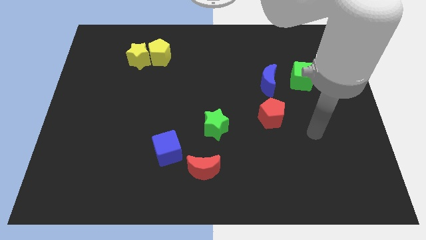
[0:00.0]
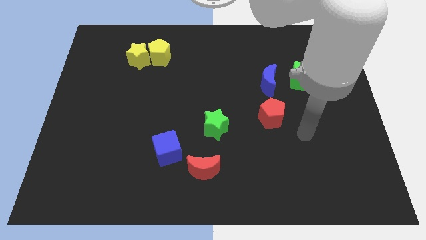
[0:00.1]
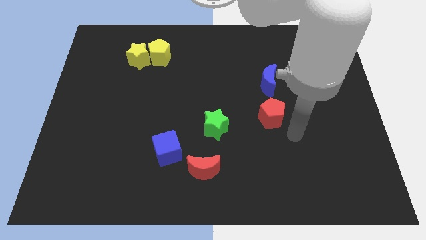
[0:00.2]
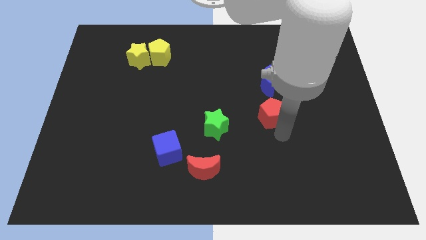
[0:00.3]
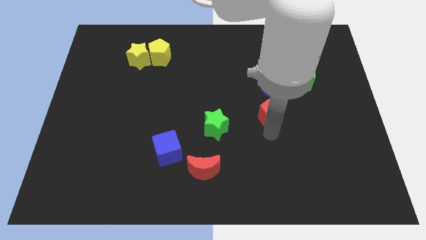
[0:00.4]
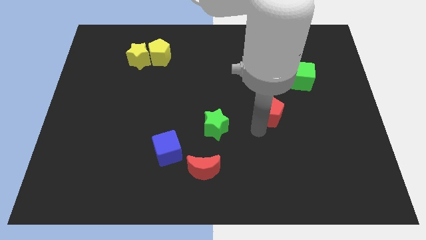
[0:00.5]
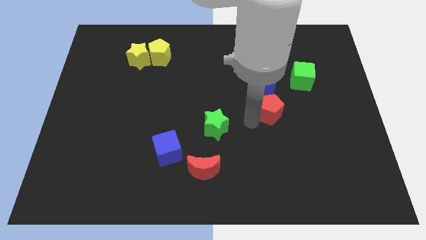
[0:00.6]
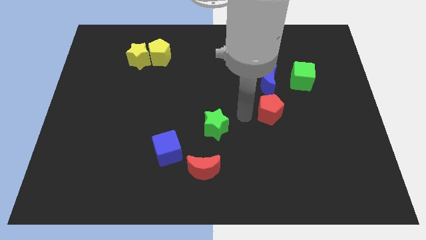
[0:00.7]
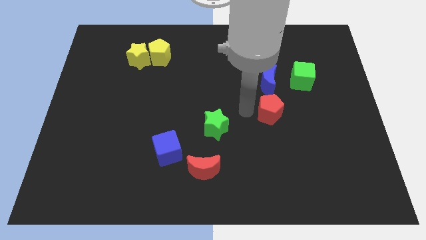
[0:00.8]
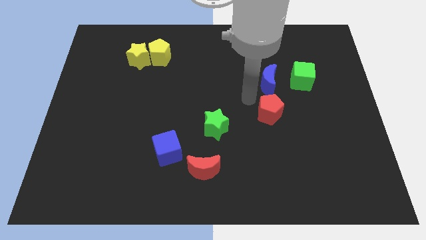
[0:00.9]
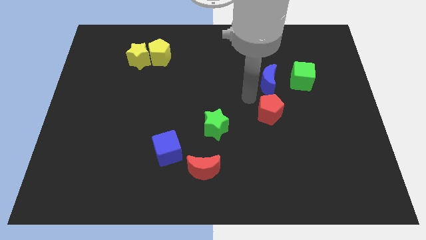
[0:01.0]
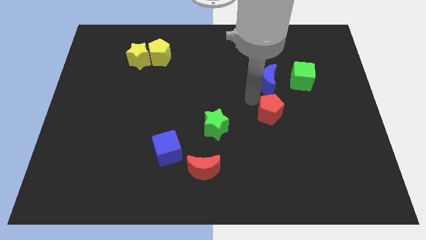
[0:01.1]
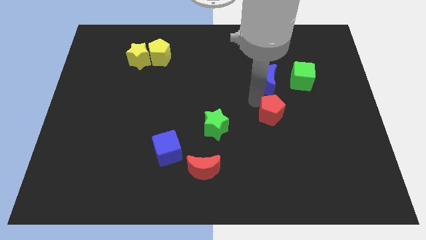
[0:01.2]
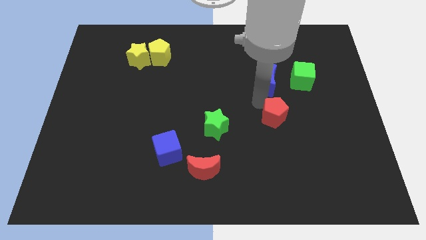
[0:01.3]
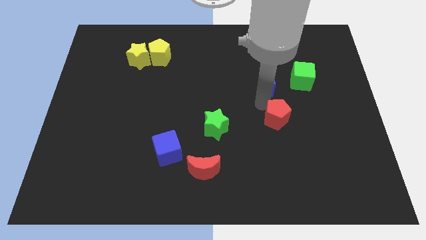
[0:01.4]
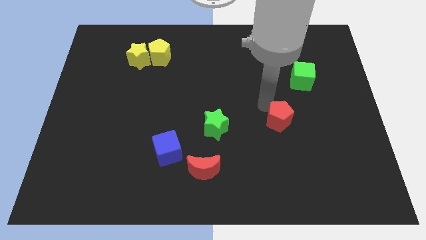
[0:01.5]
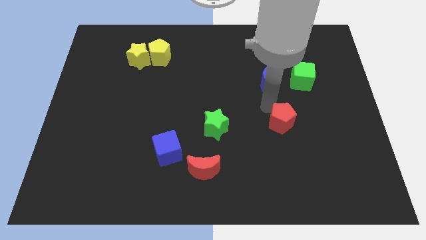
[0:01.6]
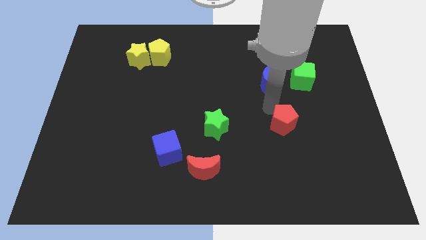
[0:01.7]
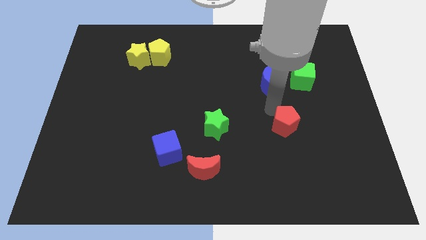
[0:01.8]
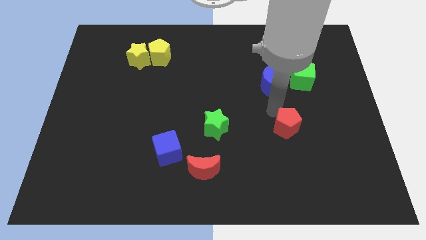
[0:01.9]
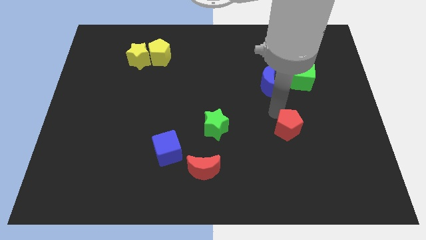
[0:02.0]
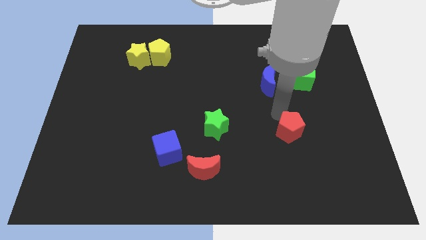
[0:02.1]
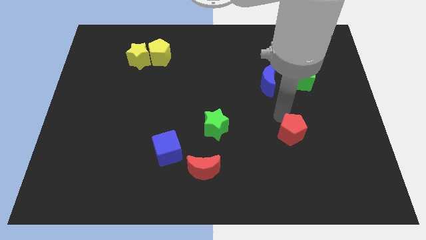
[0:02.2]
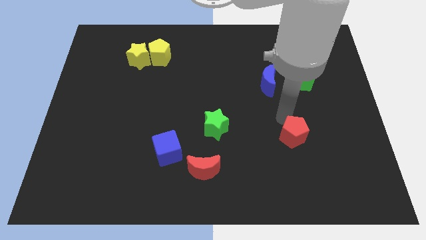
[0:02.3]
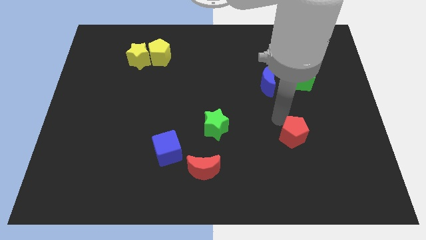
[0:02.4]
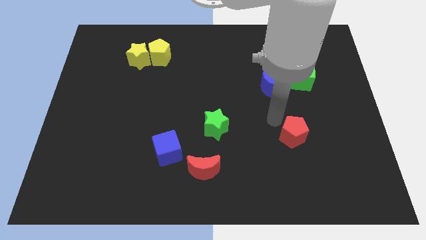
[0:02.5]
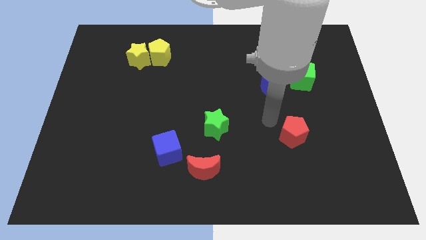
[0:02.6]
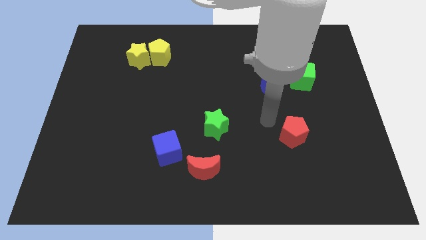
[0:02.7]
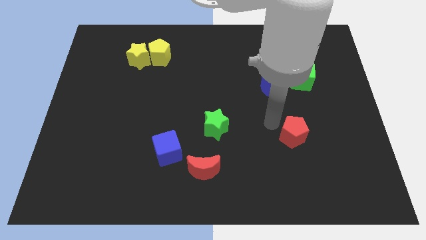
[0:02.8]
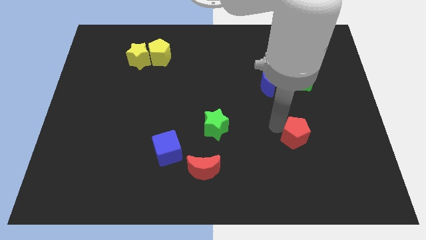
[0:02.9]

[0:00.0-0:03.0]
slide the red pentagon somewhat diagonally downwards and right

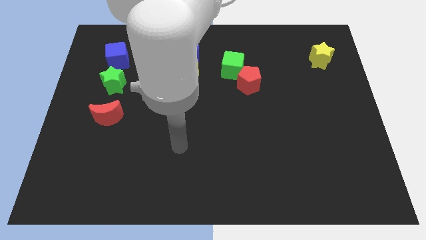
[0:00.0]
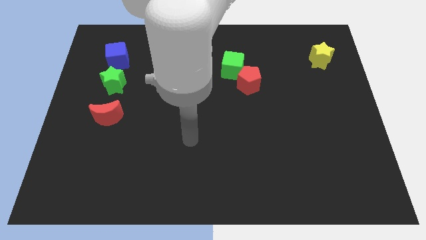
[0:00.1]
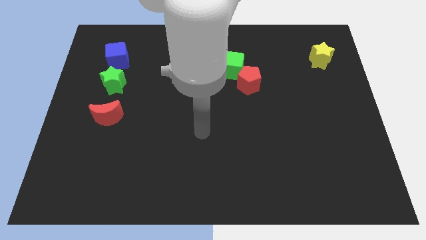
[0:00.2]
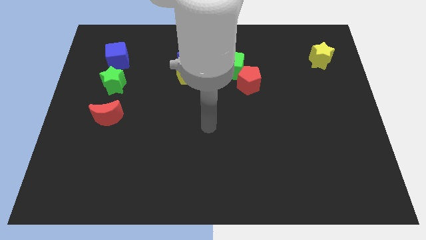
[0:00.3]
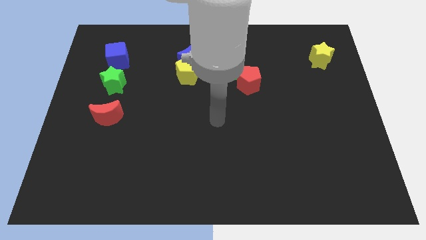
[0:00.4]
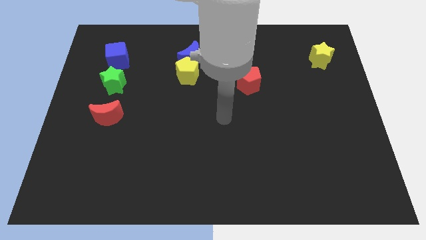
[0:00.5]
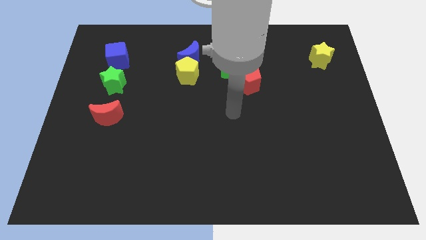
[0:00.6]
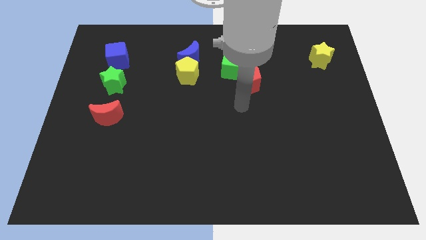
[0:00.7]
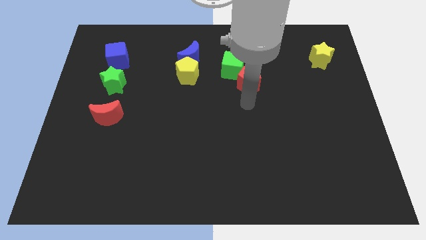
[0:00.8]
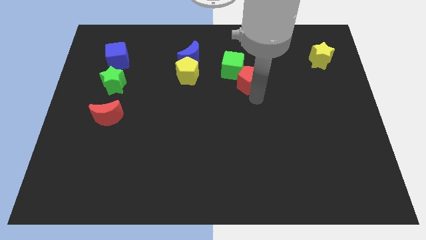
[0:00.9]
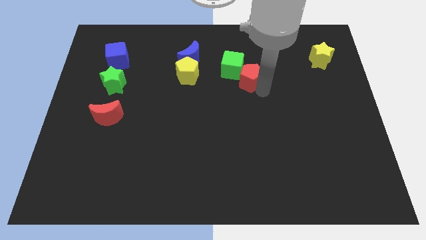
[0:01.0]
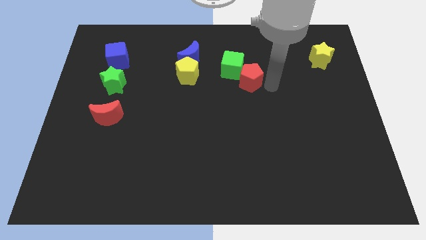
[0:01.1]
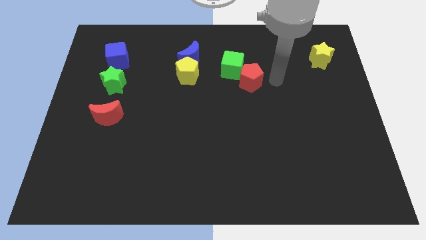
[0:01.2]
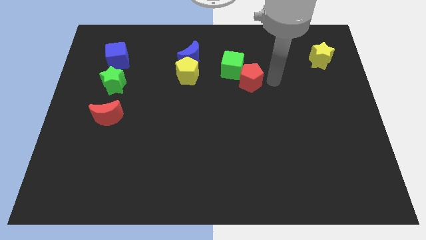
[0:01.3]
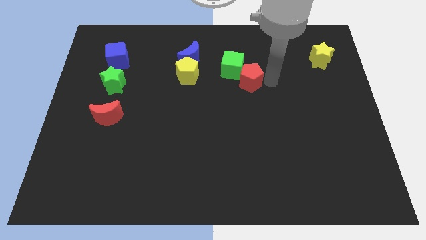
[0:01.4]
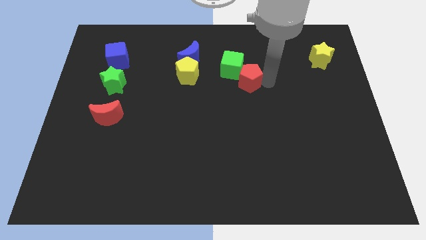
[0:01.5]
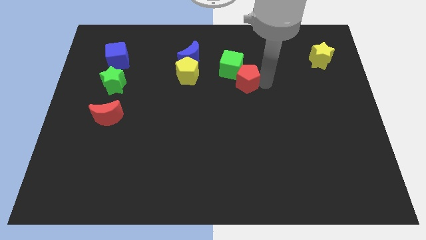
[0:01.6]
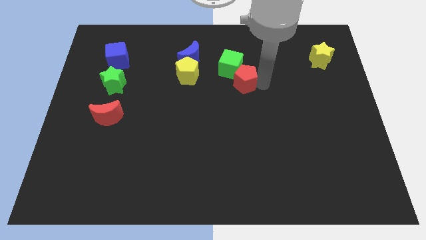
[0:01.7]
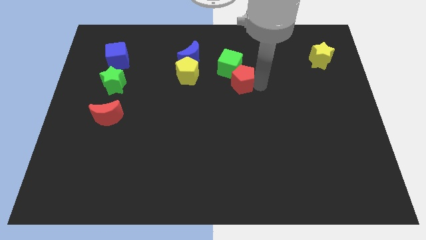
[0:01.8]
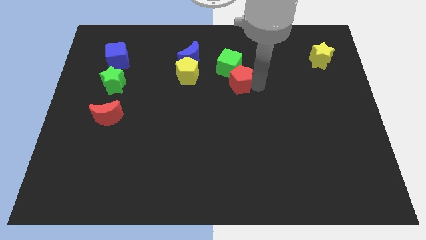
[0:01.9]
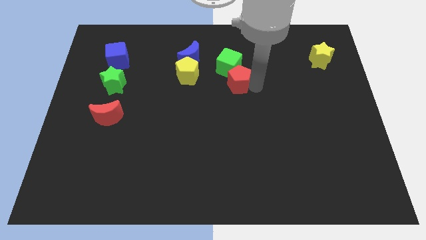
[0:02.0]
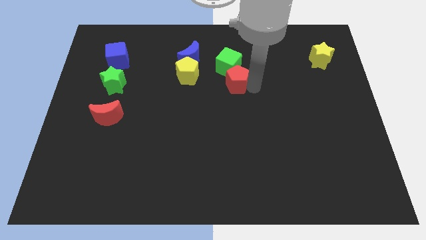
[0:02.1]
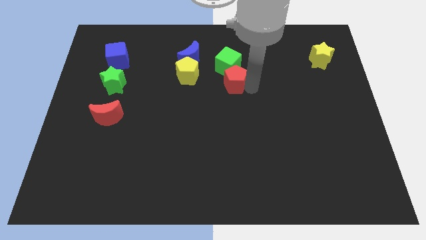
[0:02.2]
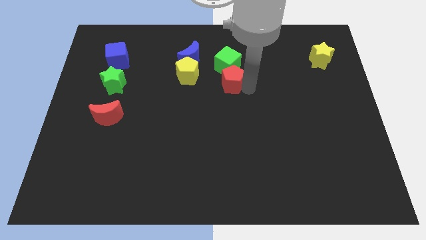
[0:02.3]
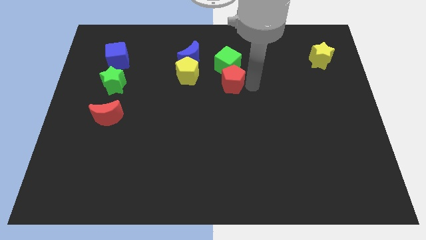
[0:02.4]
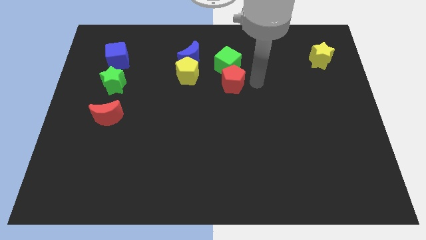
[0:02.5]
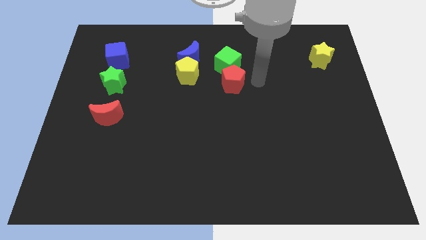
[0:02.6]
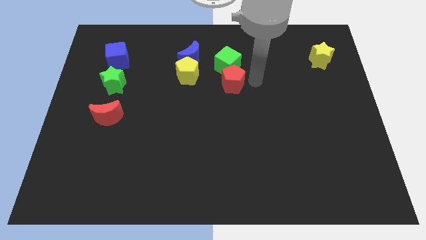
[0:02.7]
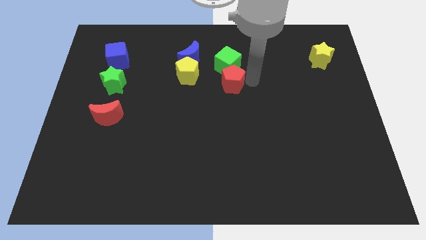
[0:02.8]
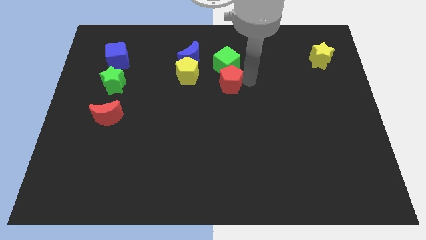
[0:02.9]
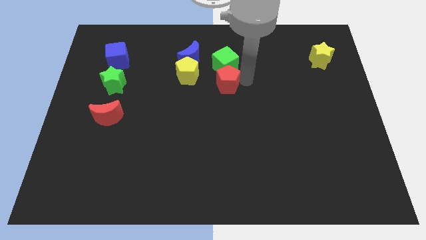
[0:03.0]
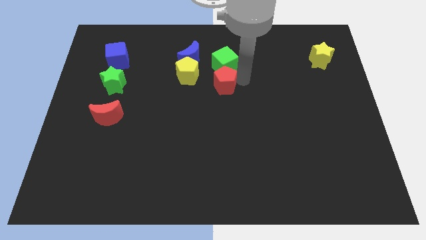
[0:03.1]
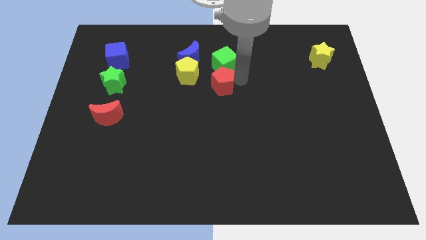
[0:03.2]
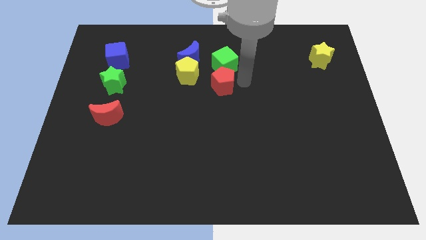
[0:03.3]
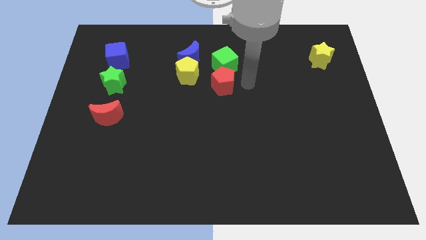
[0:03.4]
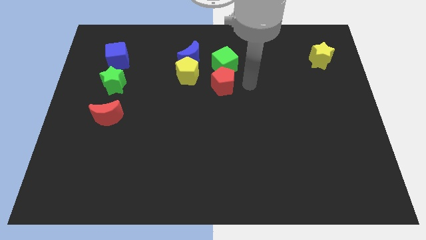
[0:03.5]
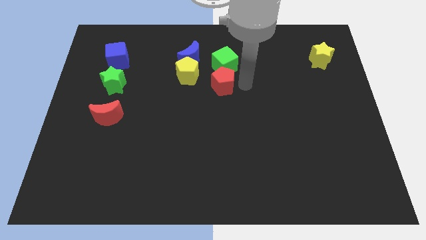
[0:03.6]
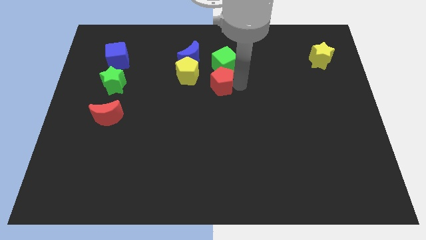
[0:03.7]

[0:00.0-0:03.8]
slightly move the red pentagon to the left

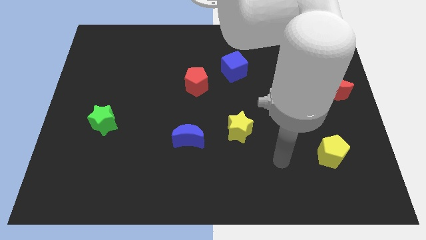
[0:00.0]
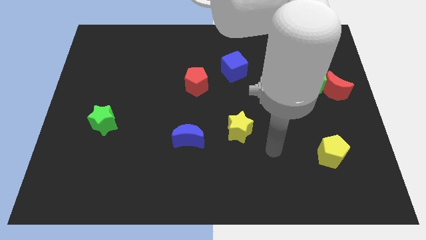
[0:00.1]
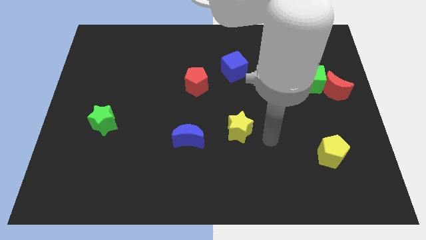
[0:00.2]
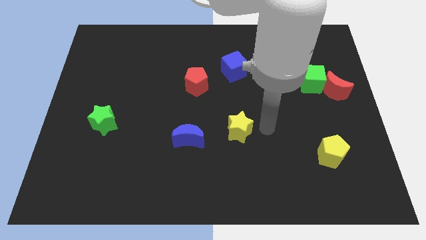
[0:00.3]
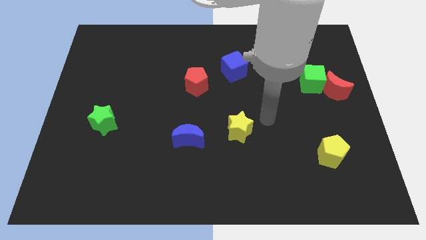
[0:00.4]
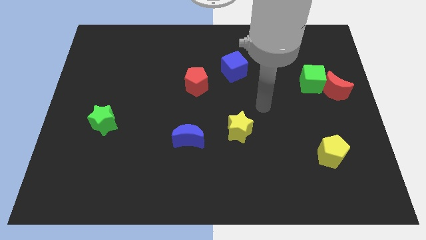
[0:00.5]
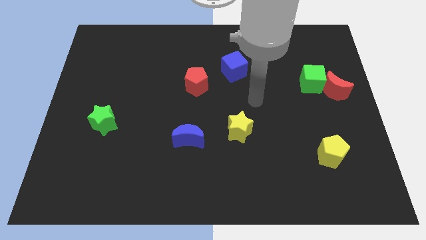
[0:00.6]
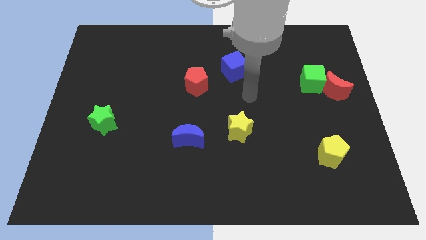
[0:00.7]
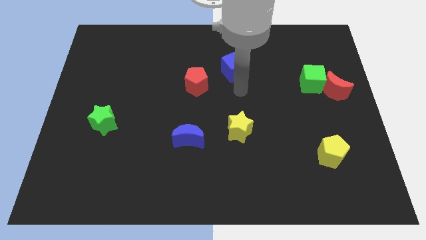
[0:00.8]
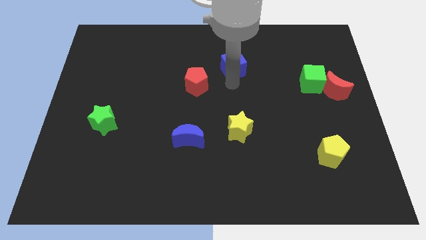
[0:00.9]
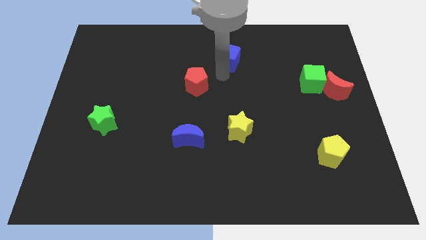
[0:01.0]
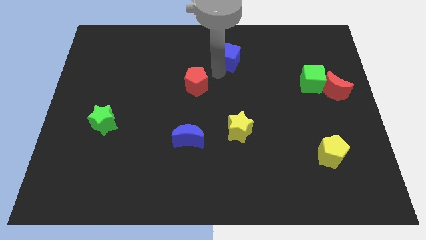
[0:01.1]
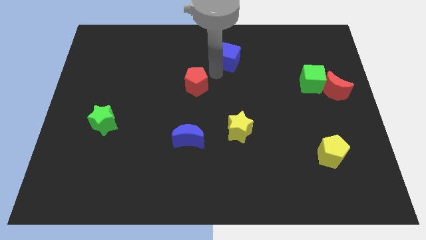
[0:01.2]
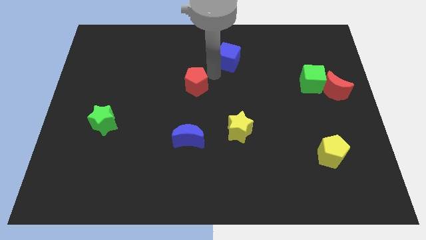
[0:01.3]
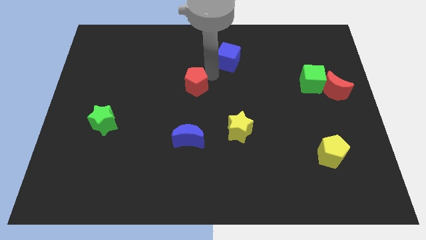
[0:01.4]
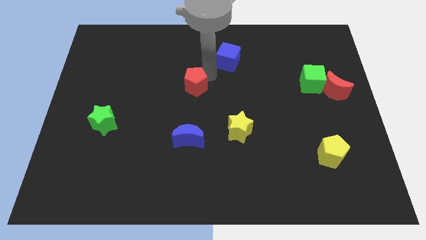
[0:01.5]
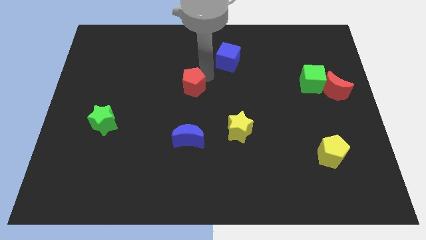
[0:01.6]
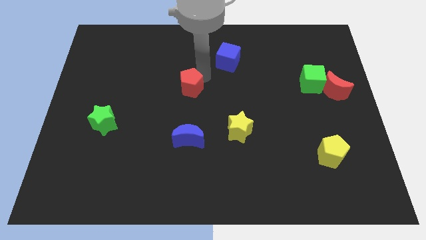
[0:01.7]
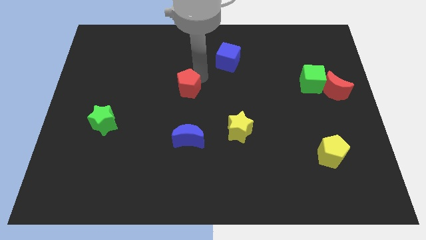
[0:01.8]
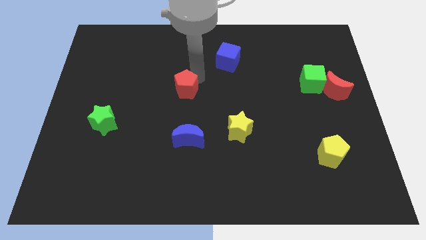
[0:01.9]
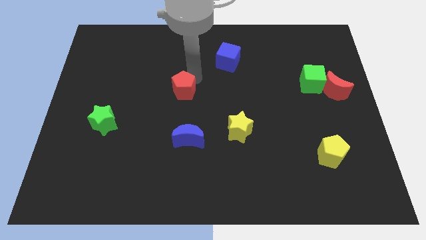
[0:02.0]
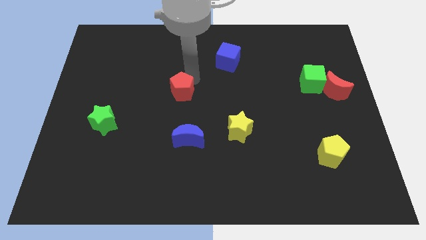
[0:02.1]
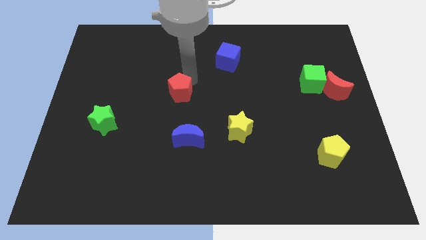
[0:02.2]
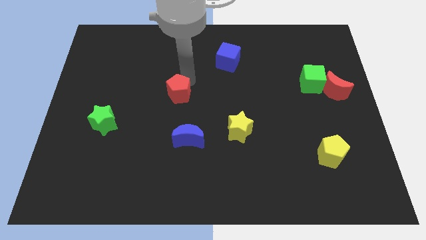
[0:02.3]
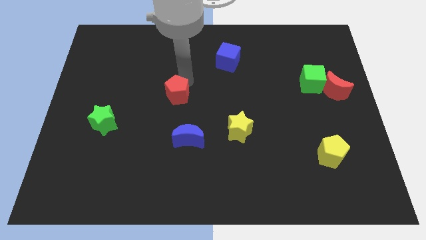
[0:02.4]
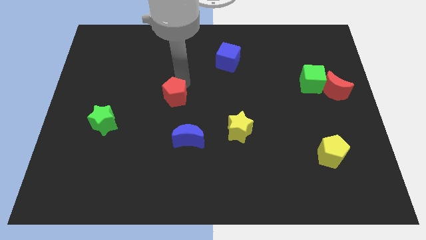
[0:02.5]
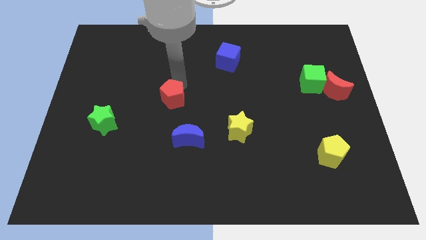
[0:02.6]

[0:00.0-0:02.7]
move the red pentagon downwards and to the left slightly
